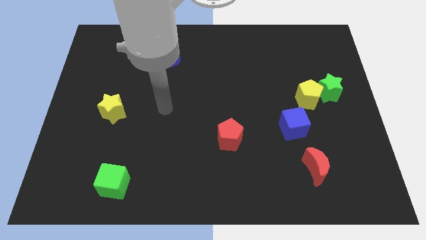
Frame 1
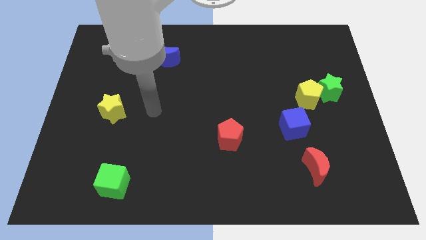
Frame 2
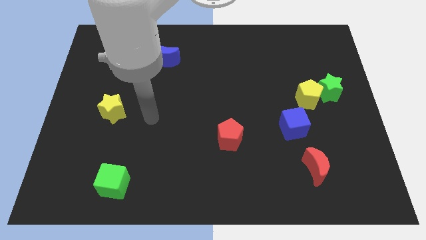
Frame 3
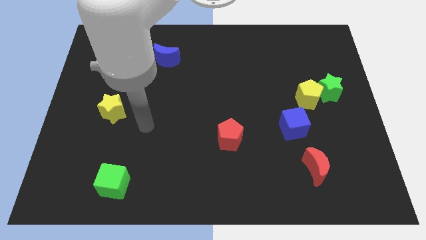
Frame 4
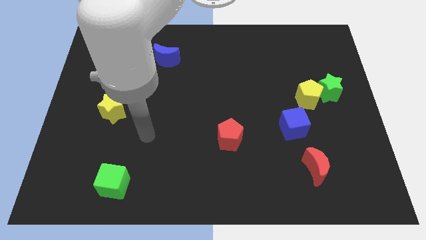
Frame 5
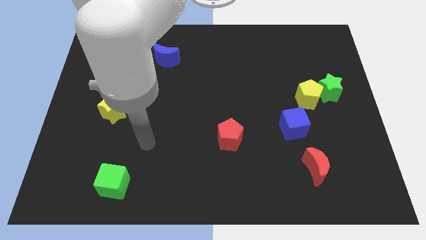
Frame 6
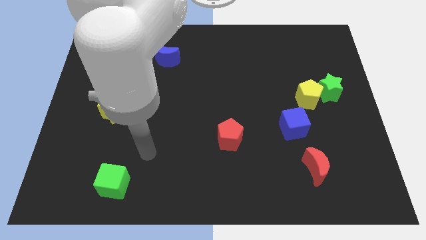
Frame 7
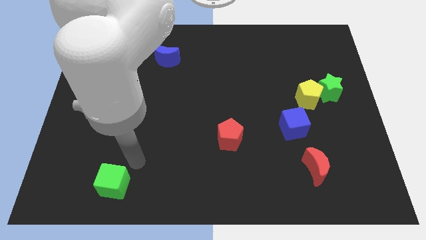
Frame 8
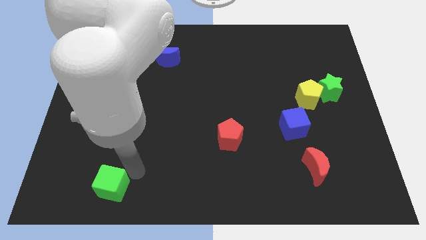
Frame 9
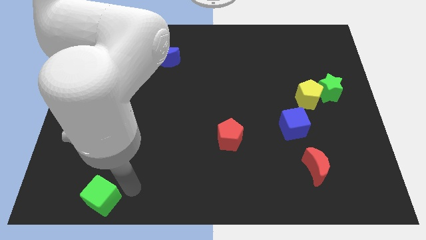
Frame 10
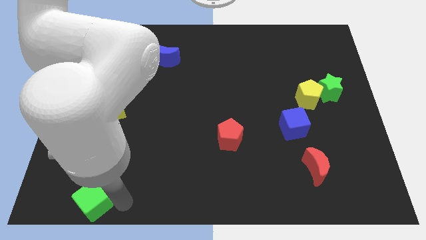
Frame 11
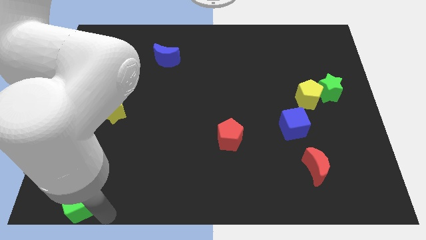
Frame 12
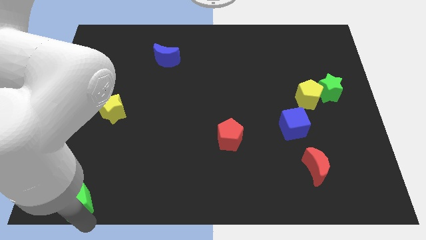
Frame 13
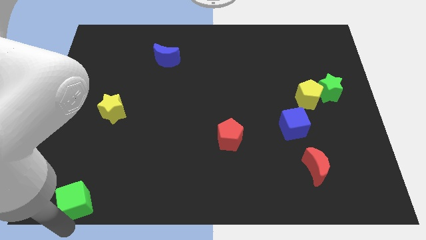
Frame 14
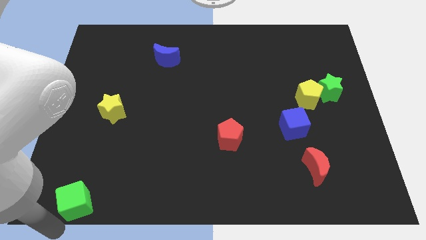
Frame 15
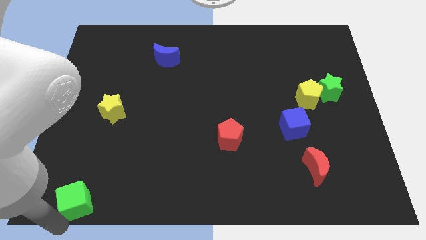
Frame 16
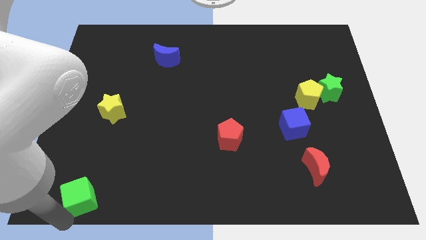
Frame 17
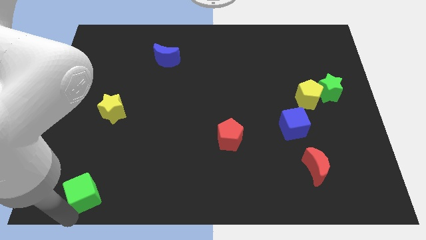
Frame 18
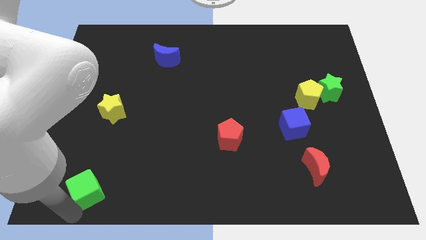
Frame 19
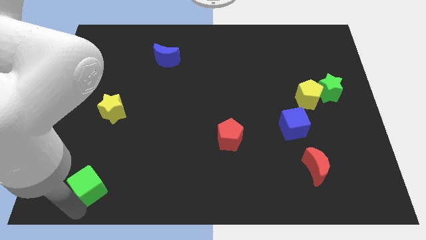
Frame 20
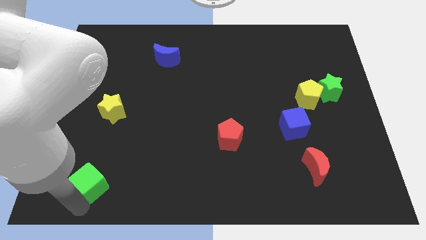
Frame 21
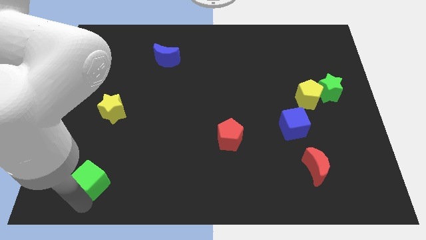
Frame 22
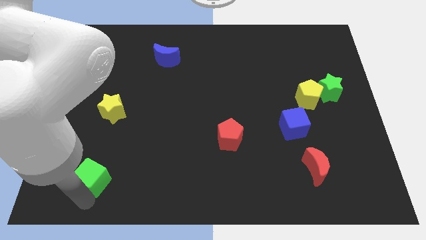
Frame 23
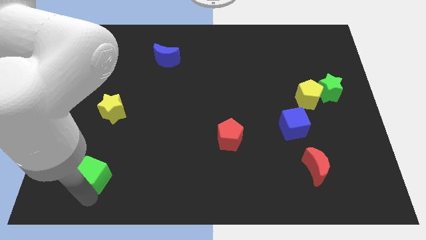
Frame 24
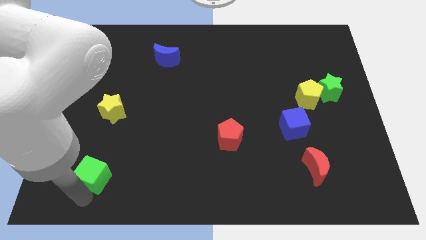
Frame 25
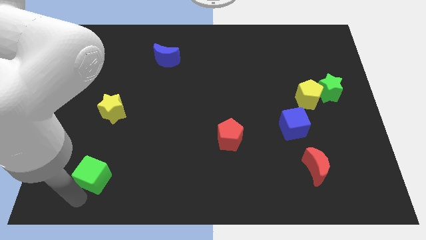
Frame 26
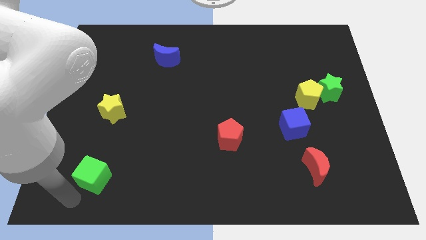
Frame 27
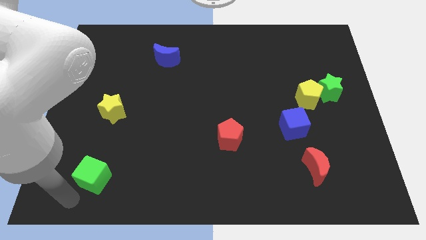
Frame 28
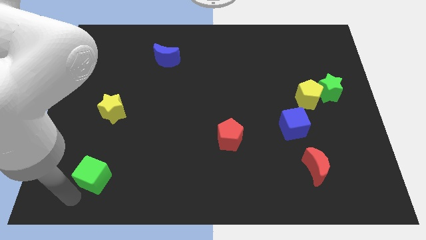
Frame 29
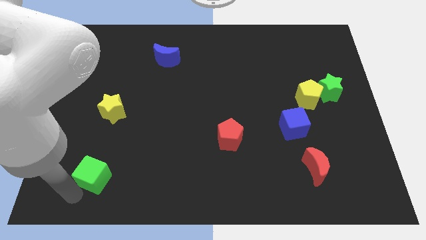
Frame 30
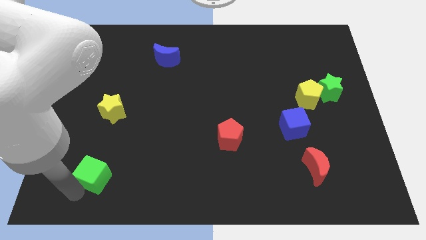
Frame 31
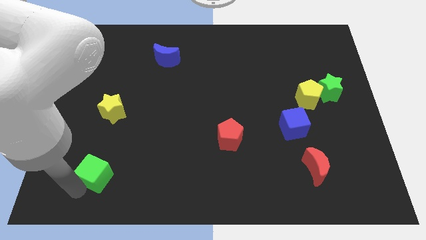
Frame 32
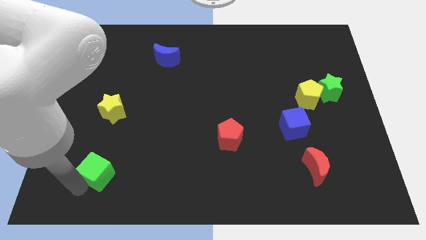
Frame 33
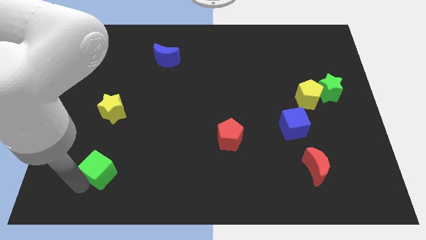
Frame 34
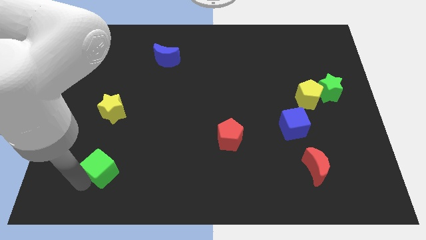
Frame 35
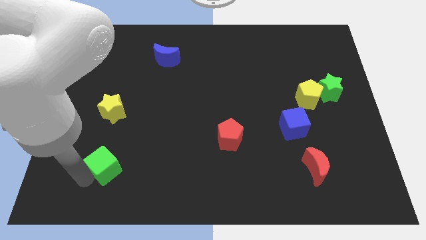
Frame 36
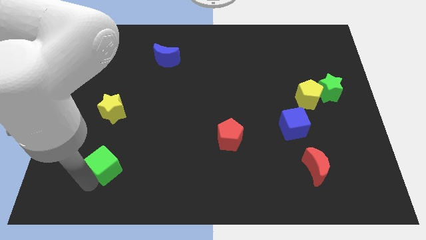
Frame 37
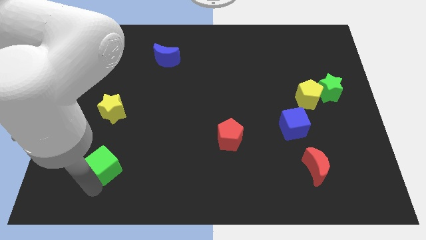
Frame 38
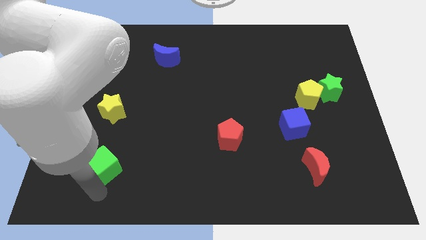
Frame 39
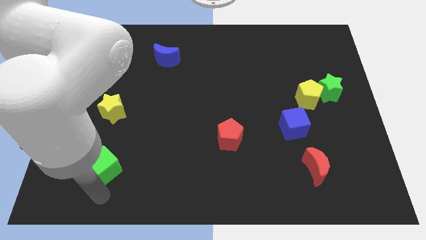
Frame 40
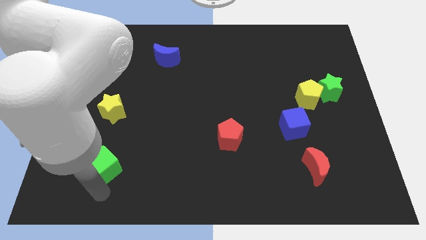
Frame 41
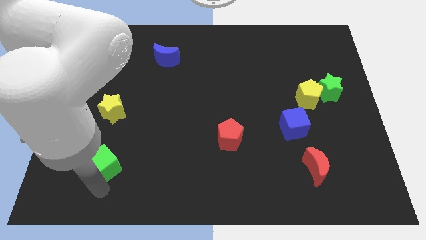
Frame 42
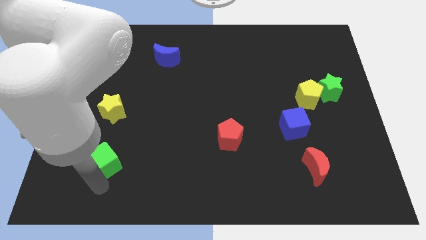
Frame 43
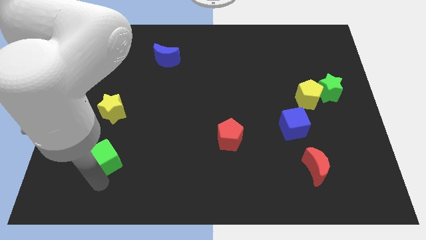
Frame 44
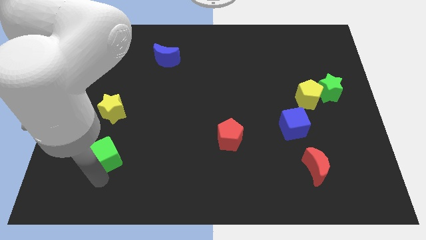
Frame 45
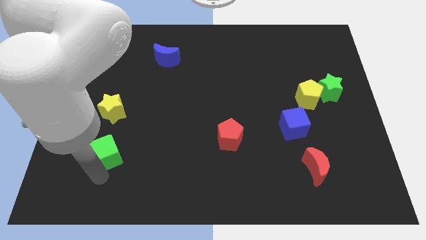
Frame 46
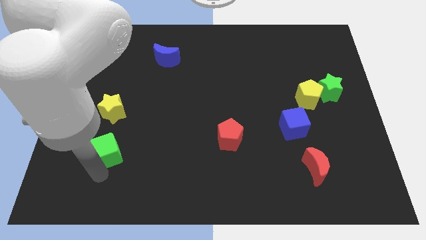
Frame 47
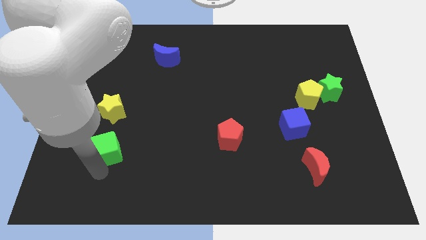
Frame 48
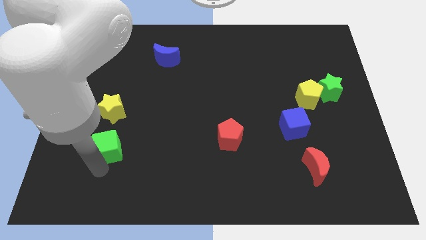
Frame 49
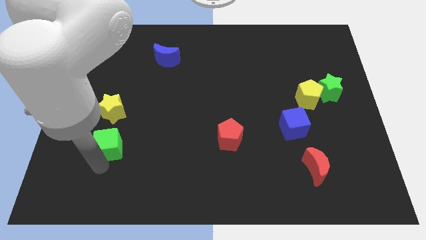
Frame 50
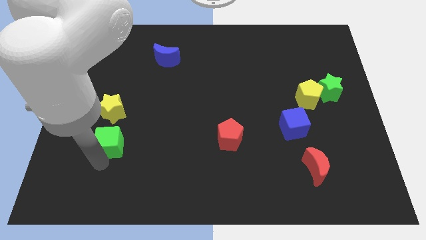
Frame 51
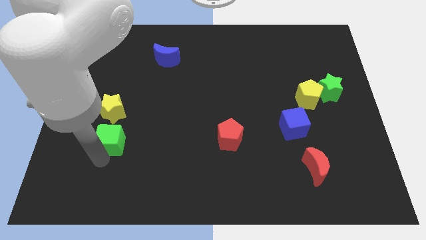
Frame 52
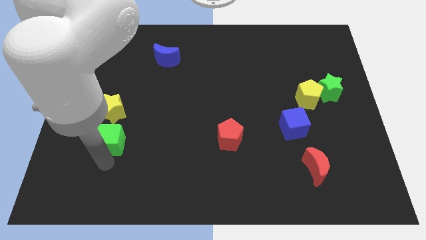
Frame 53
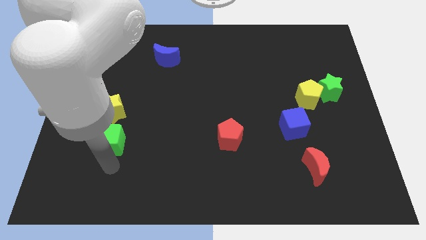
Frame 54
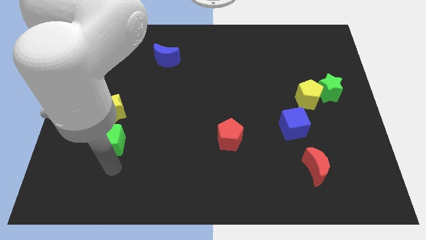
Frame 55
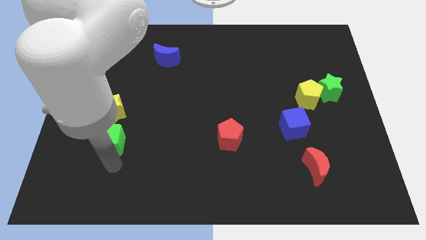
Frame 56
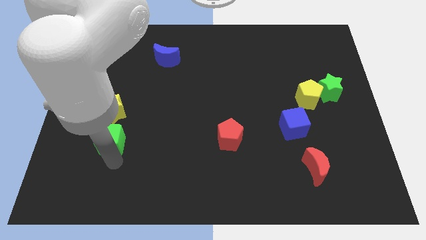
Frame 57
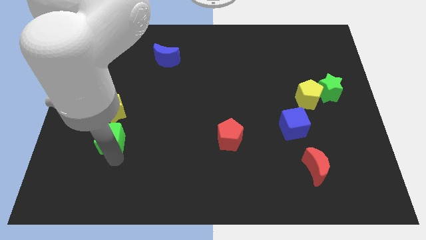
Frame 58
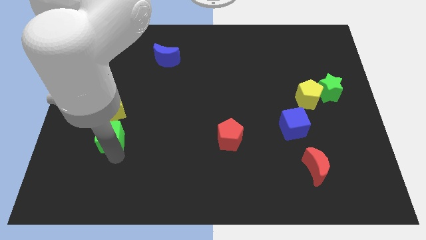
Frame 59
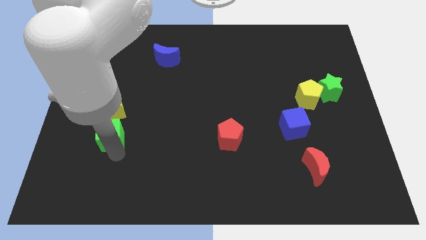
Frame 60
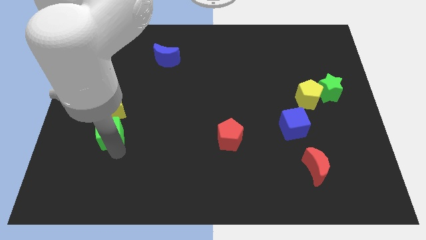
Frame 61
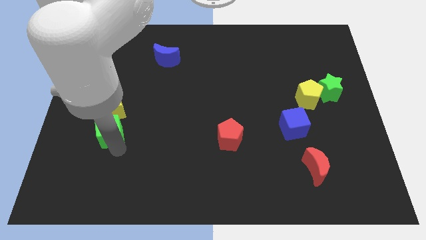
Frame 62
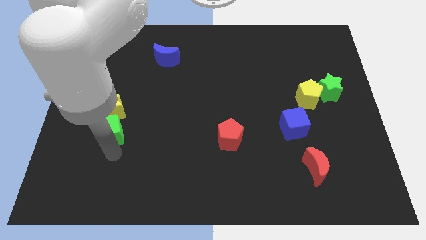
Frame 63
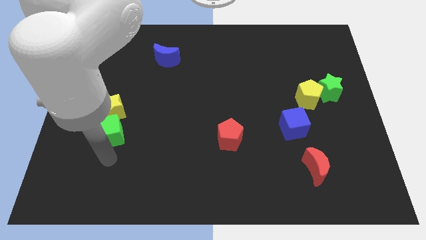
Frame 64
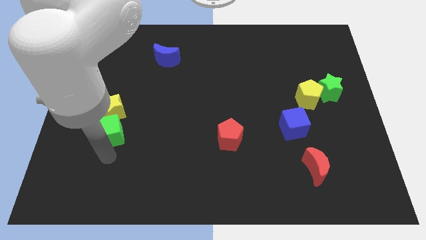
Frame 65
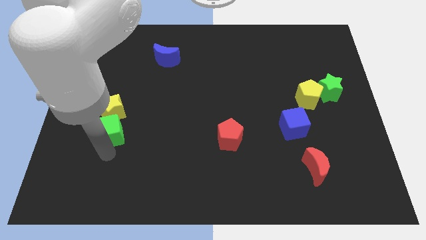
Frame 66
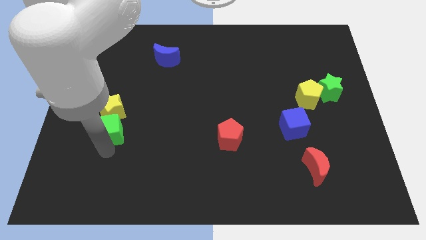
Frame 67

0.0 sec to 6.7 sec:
push the green cube towards the yellow star

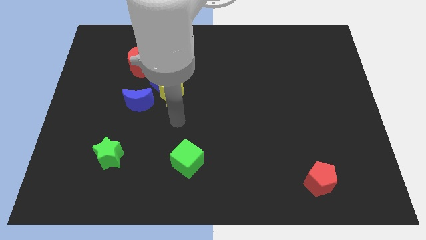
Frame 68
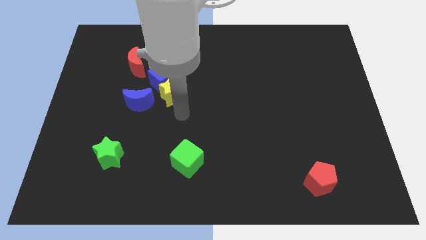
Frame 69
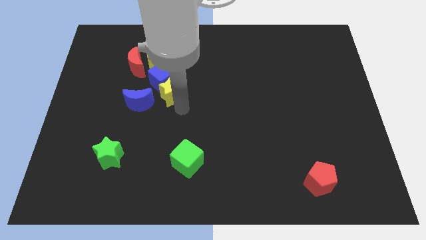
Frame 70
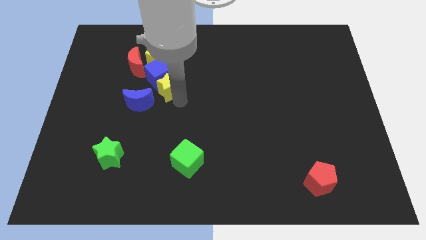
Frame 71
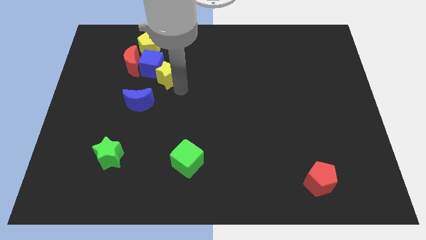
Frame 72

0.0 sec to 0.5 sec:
move the blue cube towards the red moon
